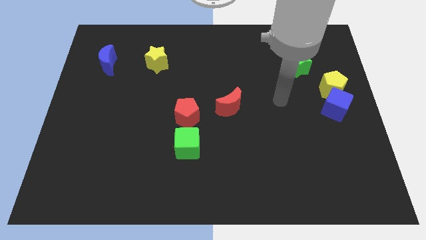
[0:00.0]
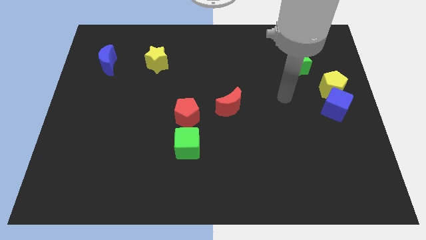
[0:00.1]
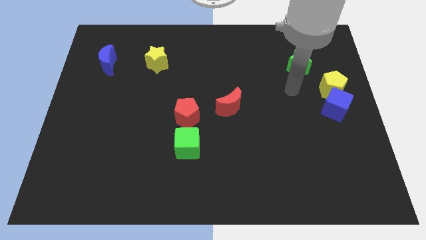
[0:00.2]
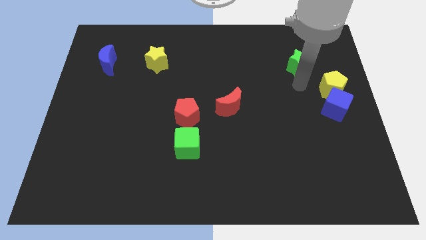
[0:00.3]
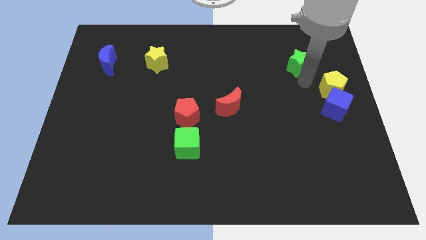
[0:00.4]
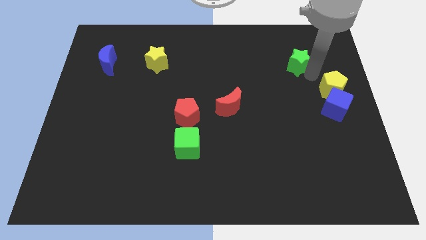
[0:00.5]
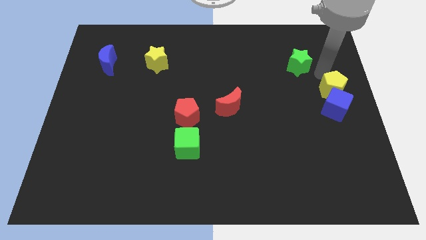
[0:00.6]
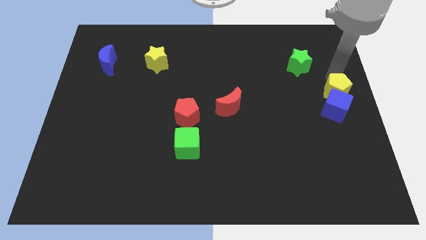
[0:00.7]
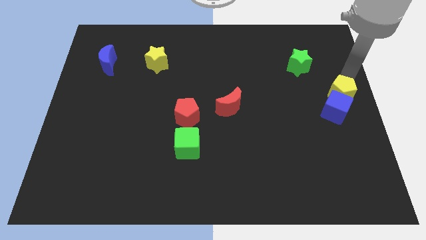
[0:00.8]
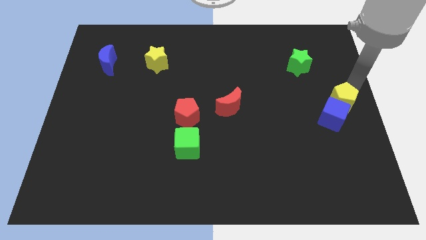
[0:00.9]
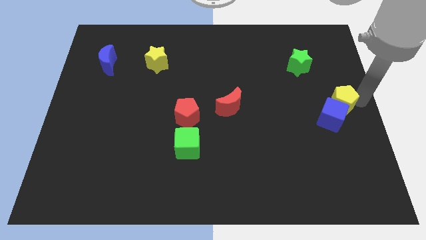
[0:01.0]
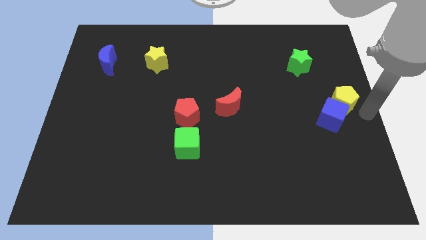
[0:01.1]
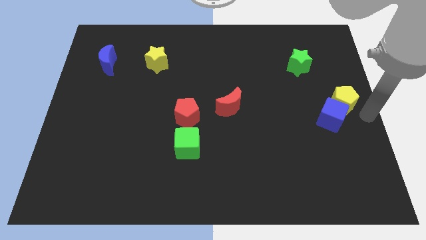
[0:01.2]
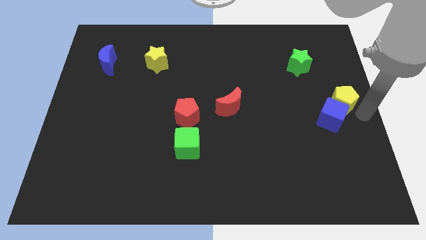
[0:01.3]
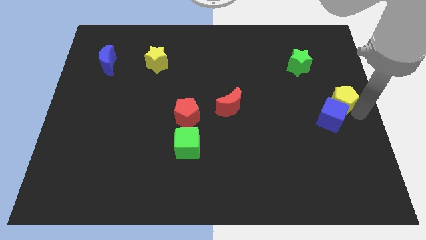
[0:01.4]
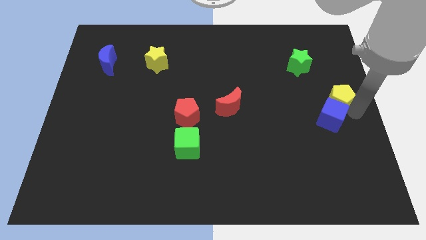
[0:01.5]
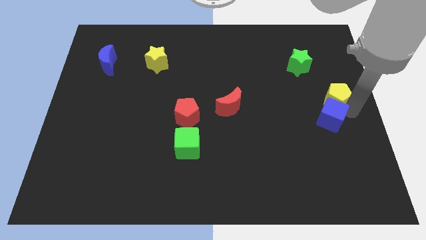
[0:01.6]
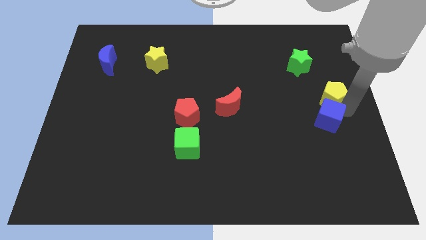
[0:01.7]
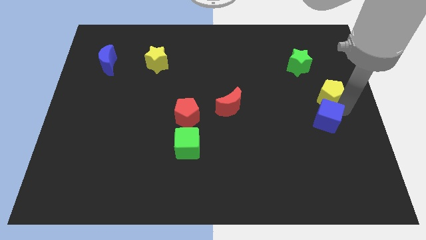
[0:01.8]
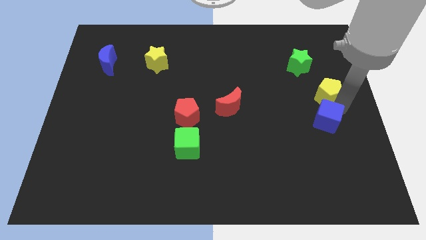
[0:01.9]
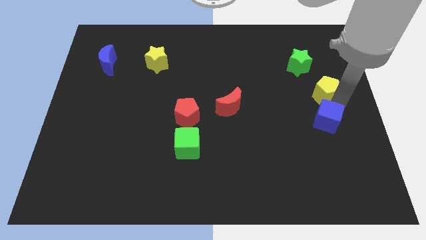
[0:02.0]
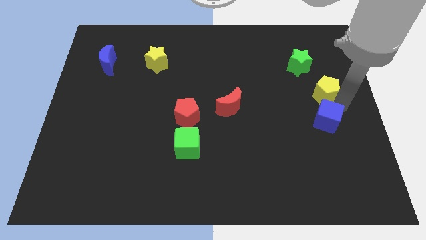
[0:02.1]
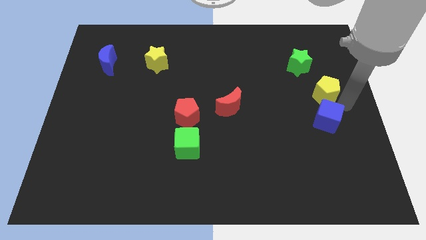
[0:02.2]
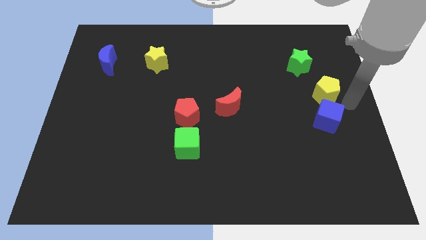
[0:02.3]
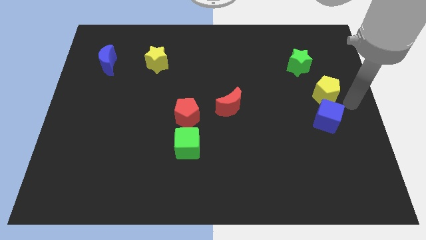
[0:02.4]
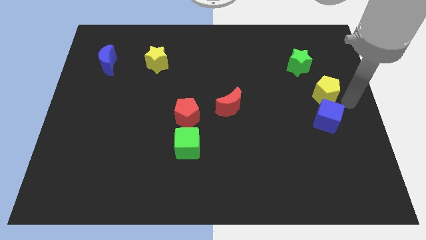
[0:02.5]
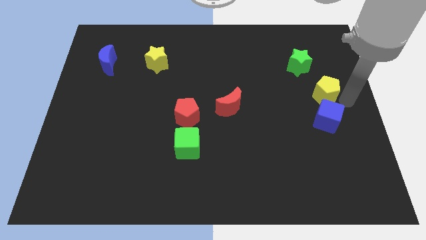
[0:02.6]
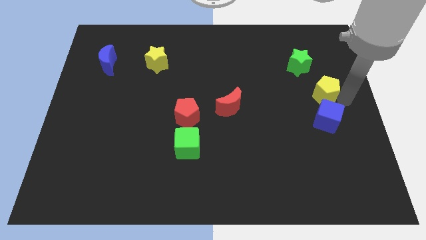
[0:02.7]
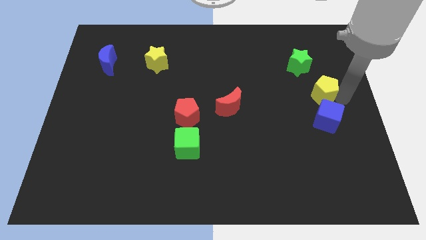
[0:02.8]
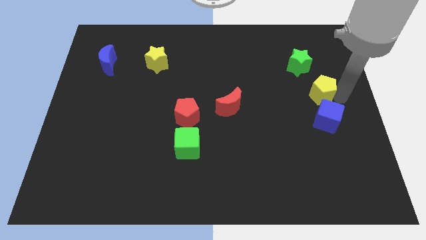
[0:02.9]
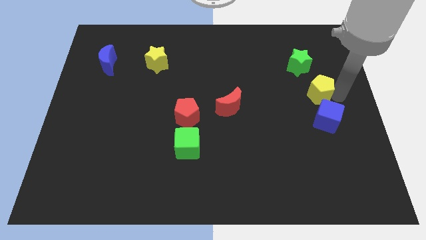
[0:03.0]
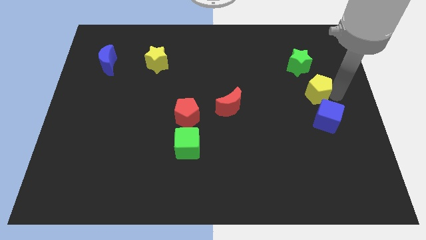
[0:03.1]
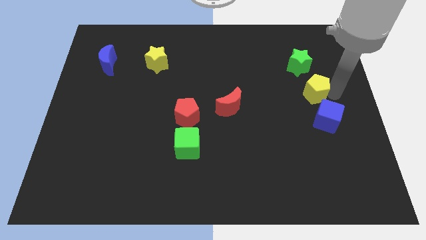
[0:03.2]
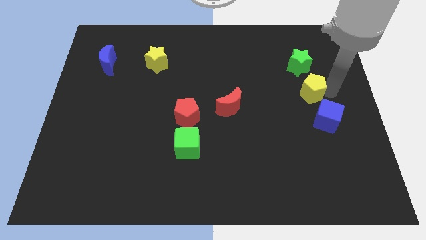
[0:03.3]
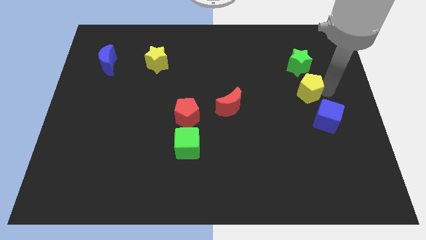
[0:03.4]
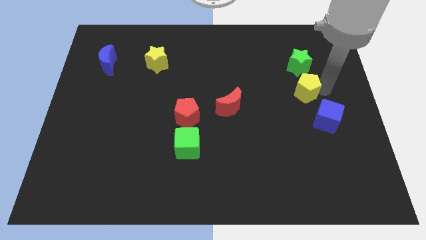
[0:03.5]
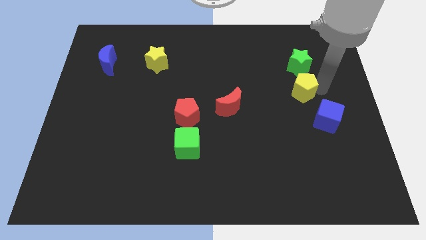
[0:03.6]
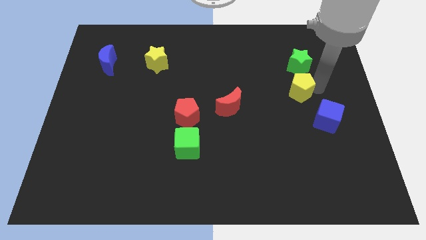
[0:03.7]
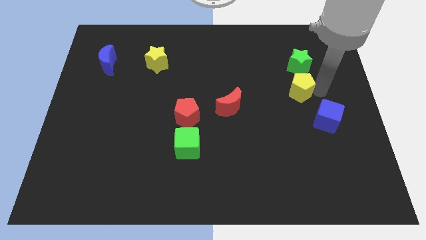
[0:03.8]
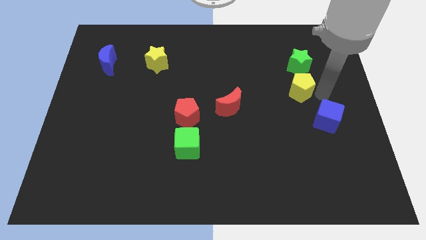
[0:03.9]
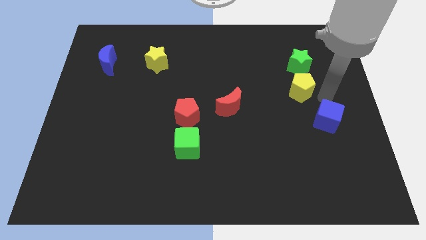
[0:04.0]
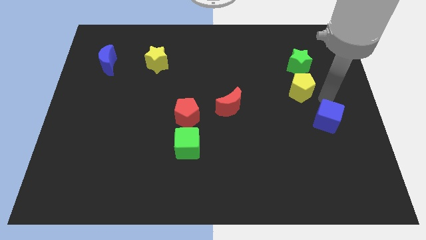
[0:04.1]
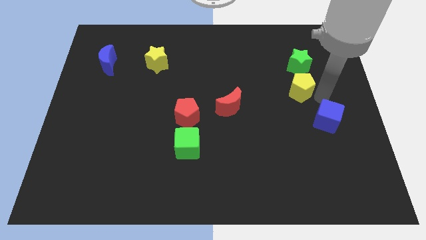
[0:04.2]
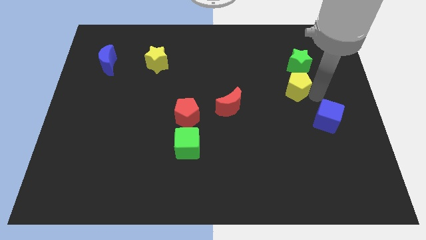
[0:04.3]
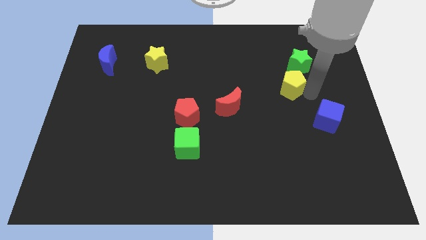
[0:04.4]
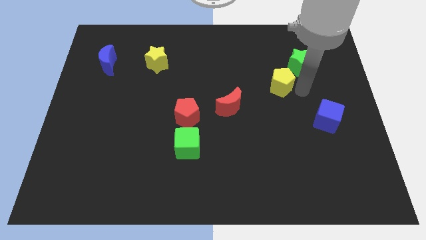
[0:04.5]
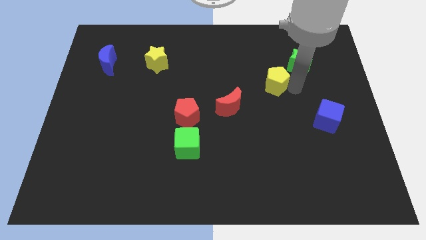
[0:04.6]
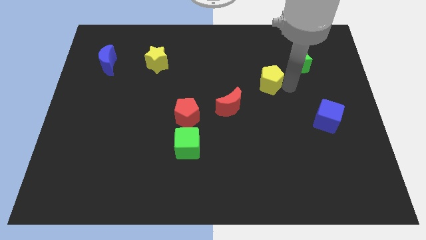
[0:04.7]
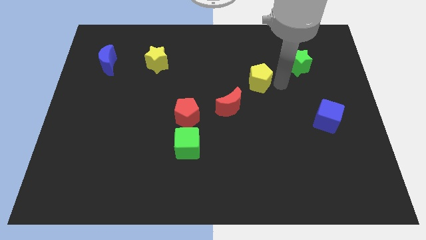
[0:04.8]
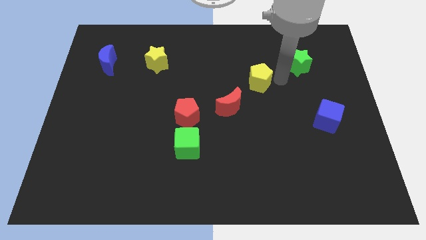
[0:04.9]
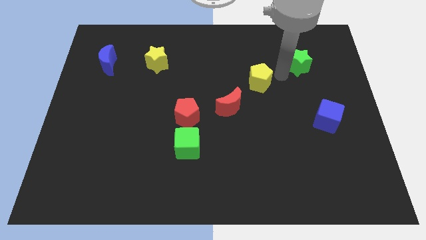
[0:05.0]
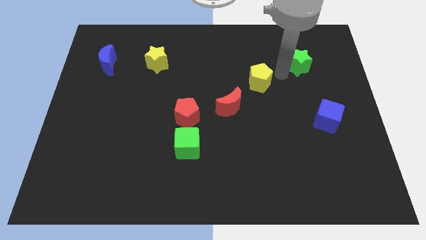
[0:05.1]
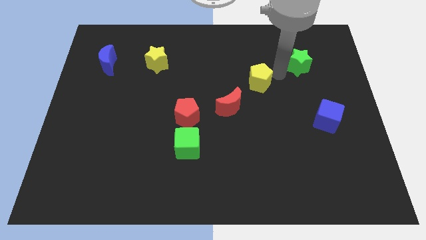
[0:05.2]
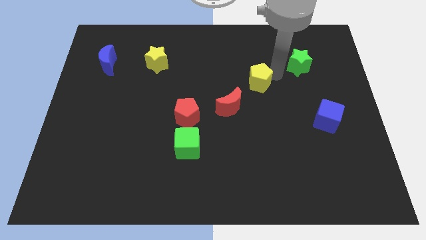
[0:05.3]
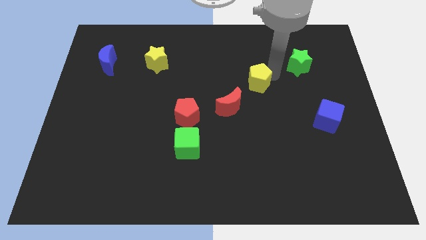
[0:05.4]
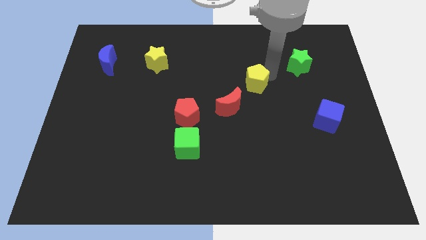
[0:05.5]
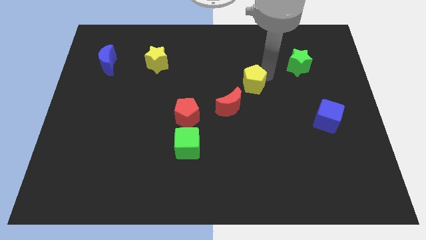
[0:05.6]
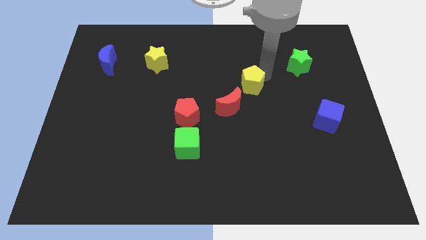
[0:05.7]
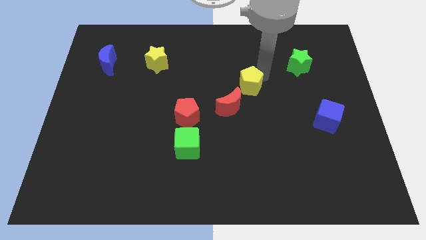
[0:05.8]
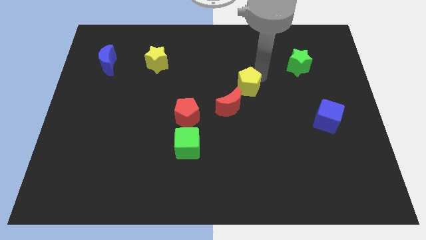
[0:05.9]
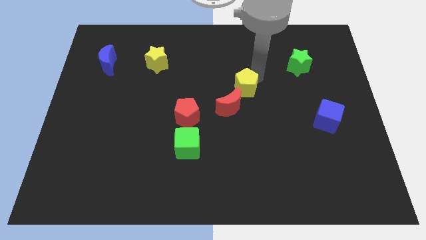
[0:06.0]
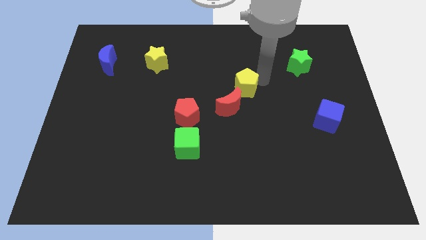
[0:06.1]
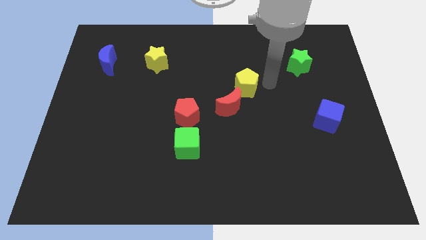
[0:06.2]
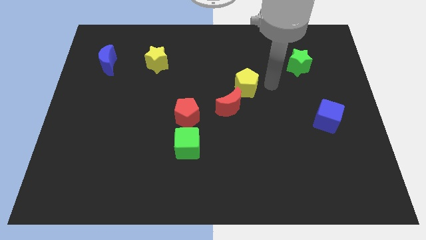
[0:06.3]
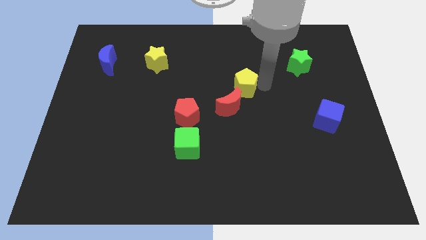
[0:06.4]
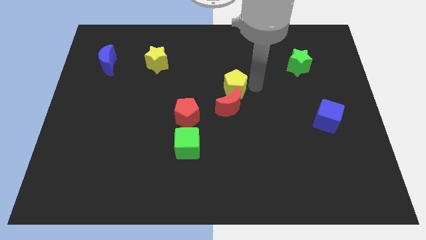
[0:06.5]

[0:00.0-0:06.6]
put the yellow pentagon diagonally up and to the left of the red moon
